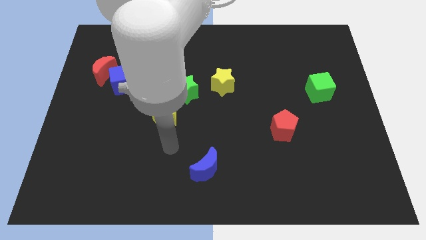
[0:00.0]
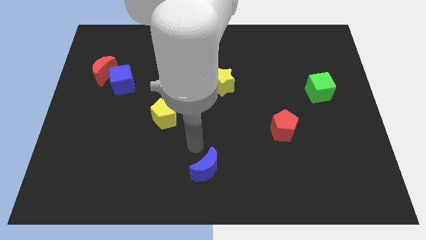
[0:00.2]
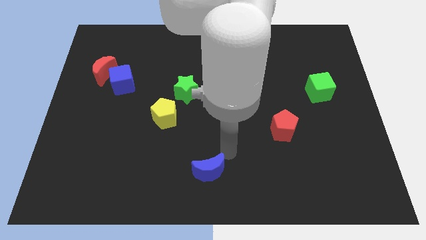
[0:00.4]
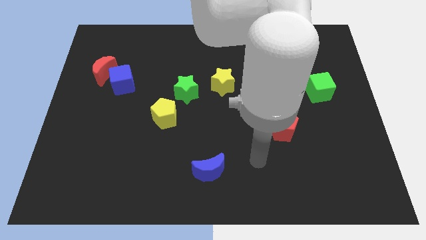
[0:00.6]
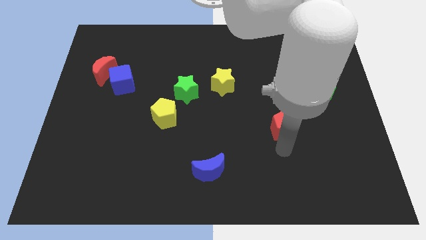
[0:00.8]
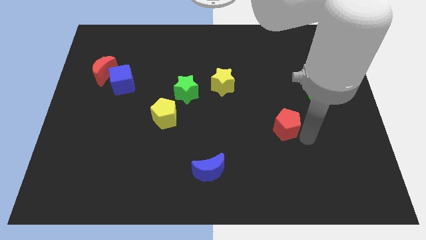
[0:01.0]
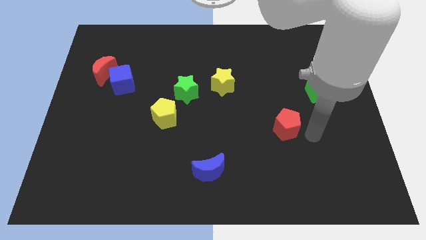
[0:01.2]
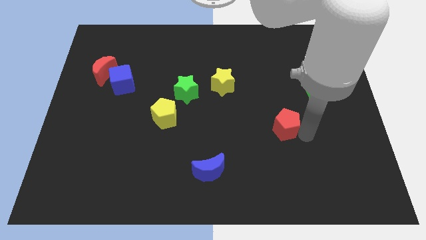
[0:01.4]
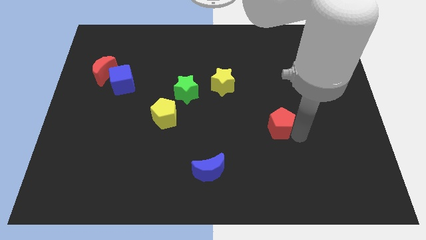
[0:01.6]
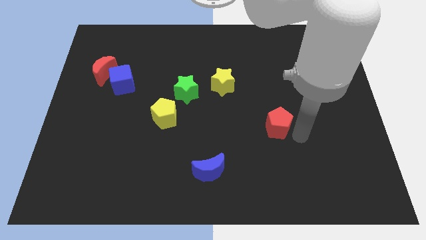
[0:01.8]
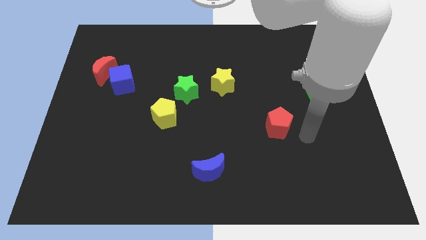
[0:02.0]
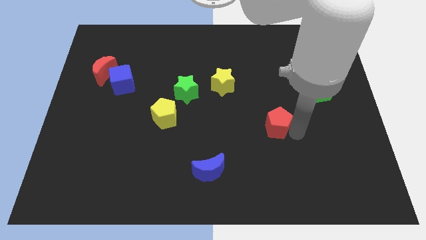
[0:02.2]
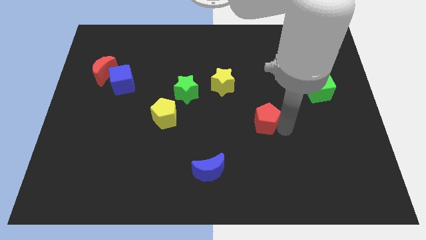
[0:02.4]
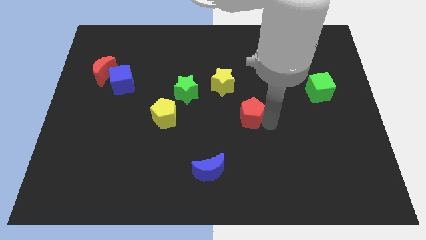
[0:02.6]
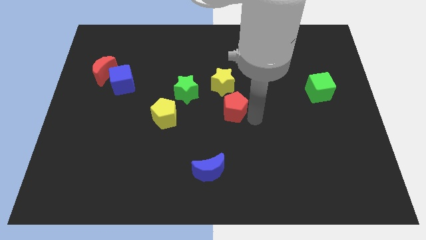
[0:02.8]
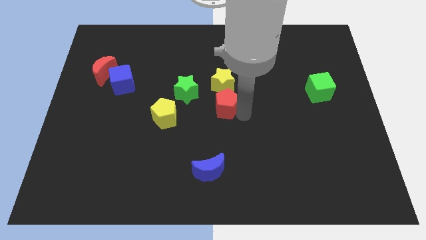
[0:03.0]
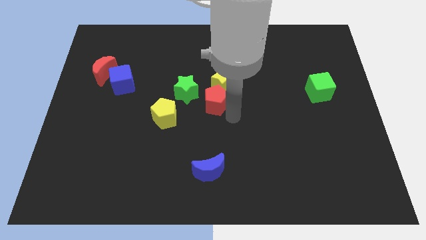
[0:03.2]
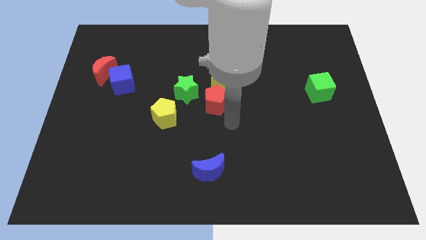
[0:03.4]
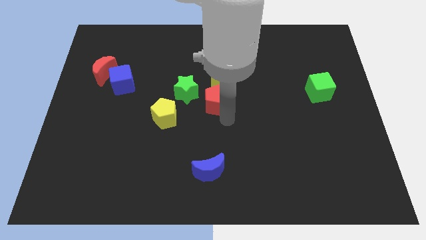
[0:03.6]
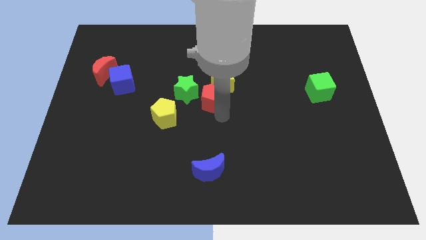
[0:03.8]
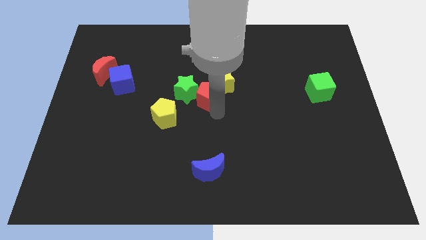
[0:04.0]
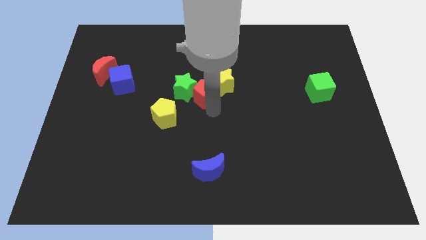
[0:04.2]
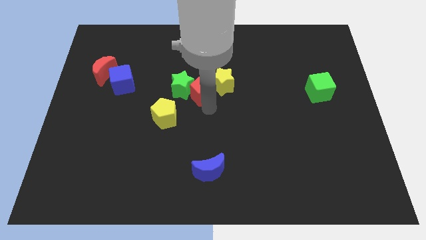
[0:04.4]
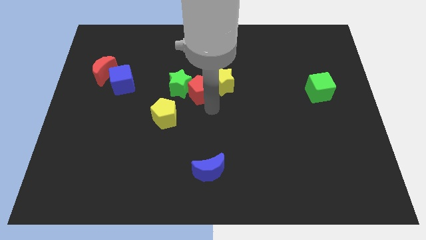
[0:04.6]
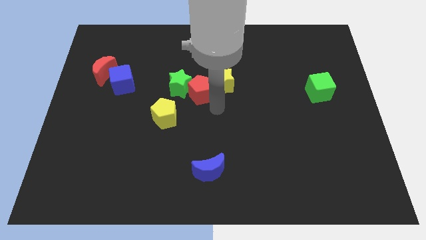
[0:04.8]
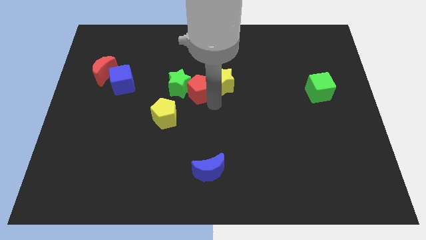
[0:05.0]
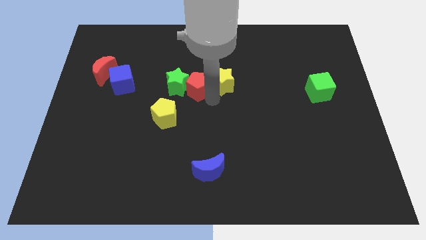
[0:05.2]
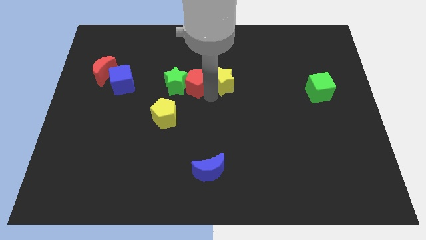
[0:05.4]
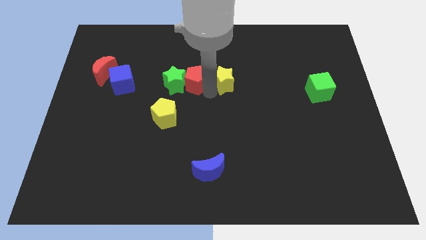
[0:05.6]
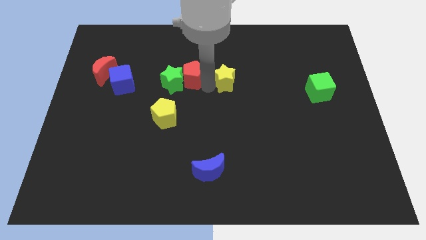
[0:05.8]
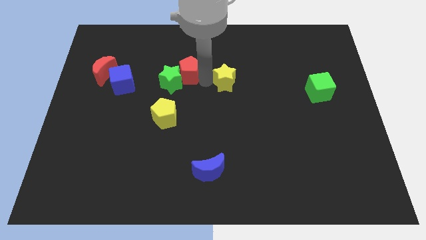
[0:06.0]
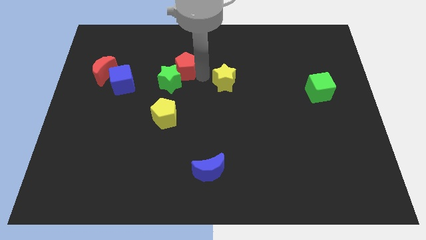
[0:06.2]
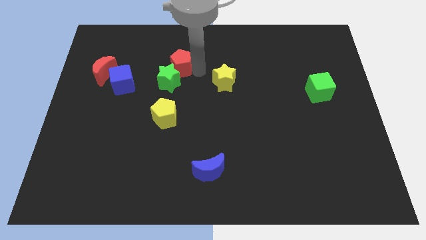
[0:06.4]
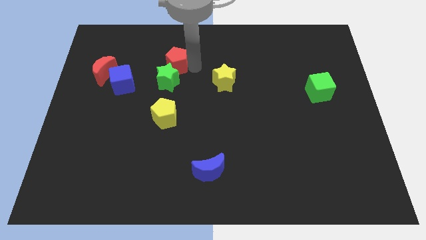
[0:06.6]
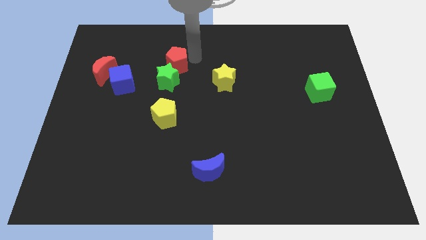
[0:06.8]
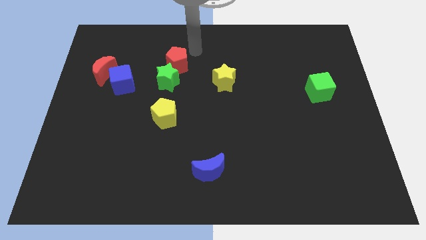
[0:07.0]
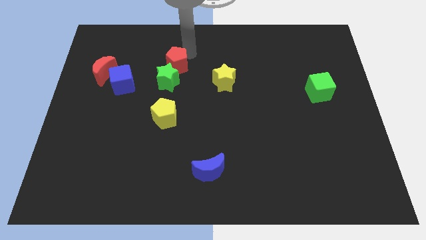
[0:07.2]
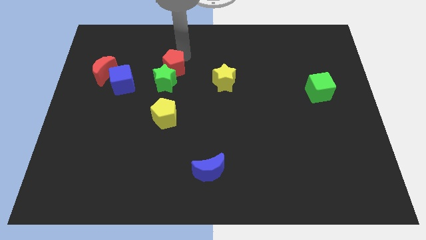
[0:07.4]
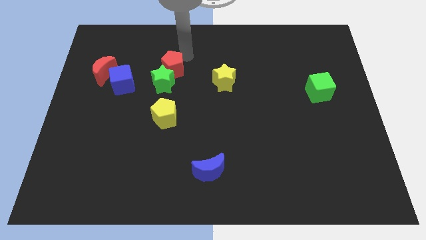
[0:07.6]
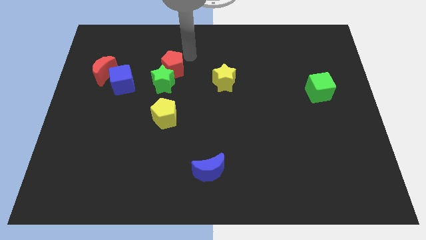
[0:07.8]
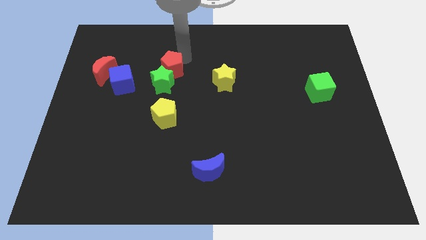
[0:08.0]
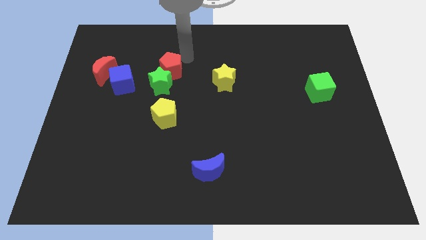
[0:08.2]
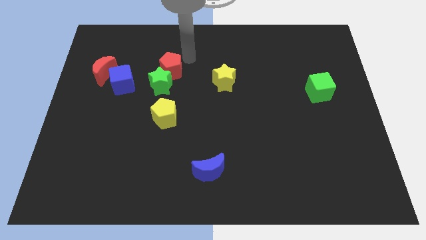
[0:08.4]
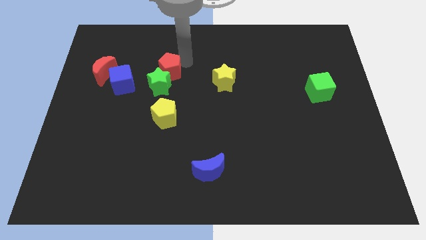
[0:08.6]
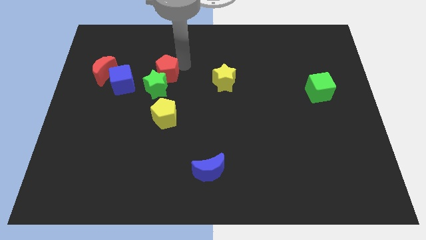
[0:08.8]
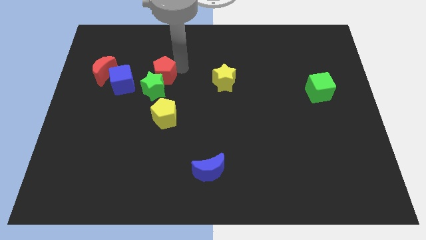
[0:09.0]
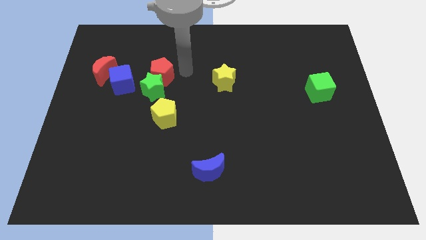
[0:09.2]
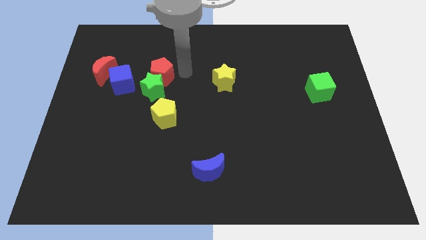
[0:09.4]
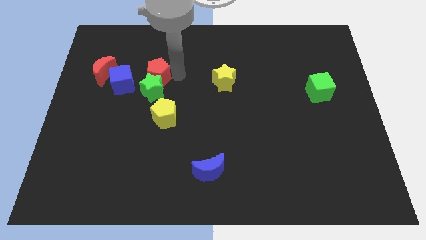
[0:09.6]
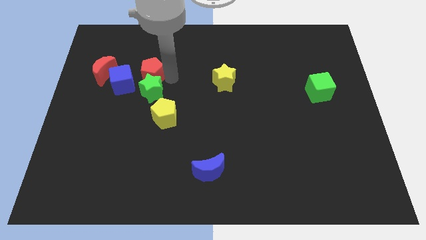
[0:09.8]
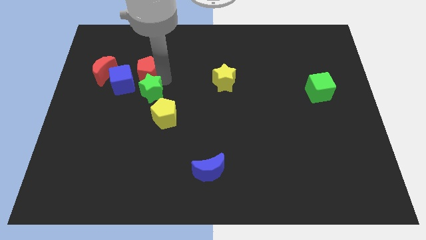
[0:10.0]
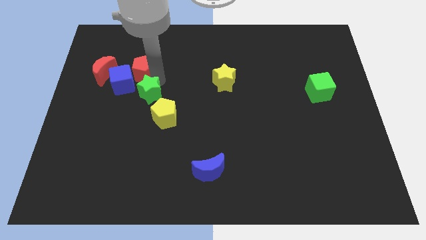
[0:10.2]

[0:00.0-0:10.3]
slide the red pentagon to the blue cube

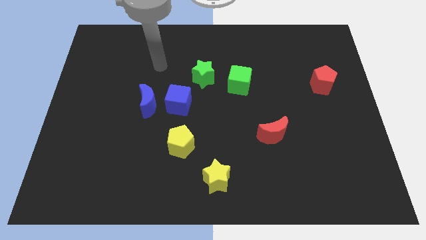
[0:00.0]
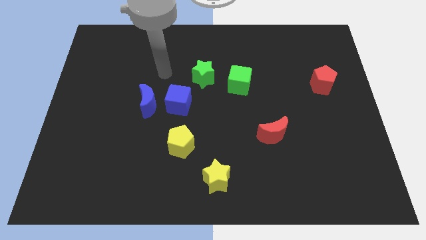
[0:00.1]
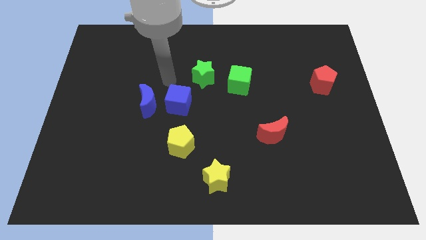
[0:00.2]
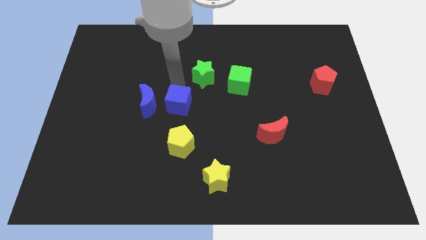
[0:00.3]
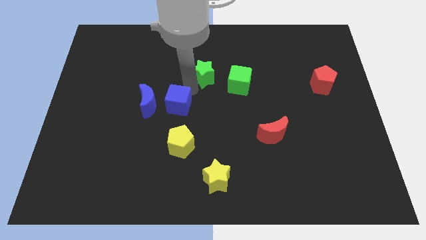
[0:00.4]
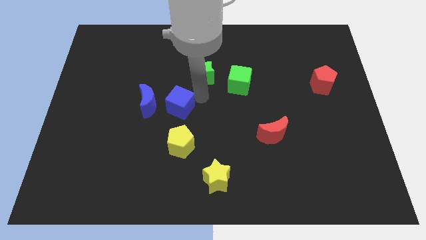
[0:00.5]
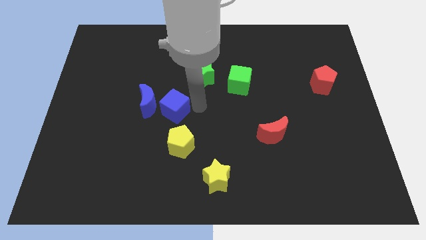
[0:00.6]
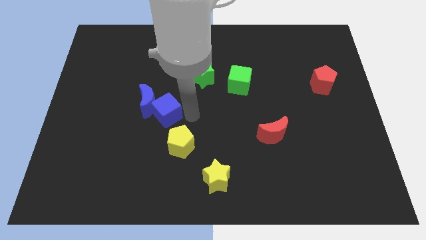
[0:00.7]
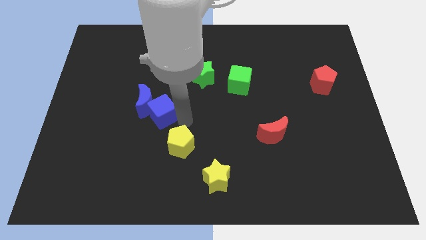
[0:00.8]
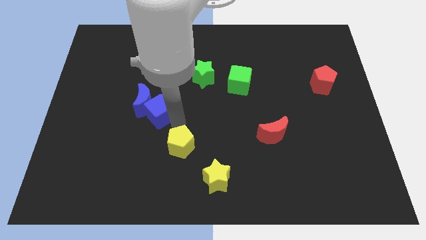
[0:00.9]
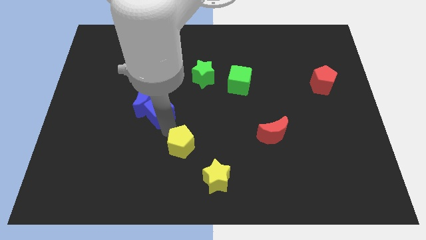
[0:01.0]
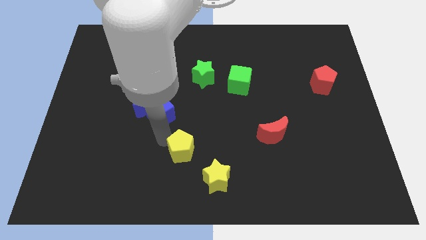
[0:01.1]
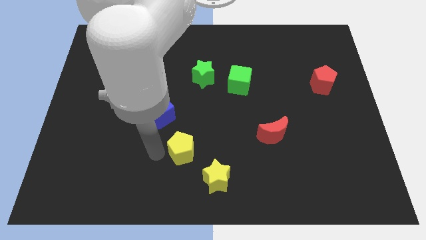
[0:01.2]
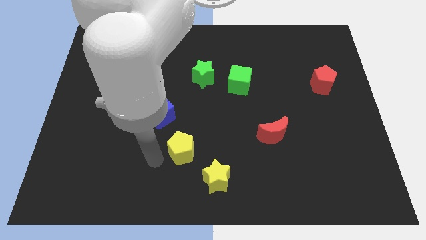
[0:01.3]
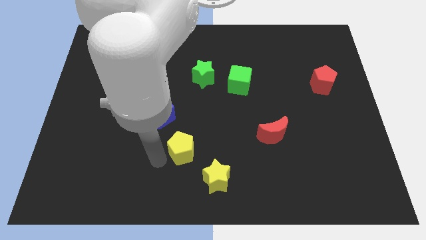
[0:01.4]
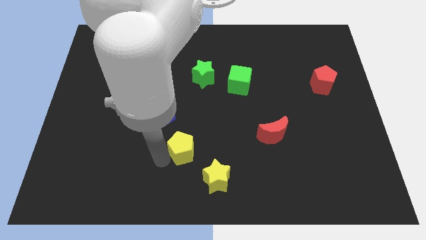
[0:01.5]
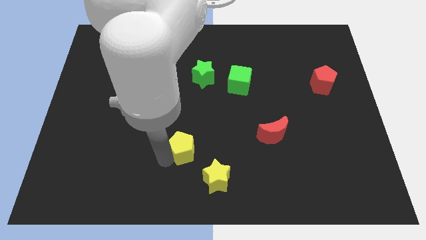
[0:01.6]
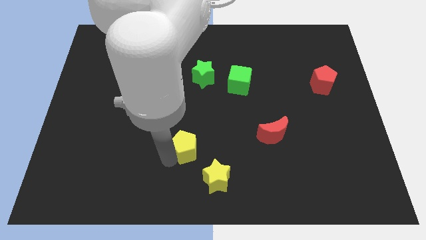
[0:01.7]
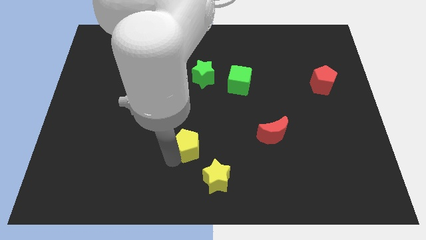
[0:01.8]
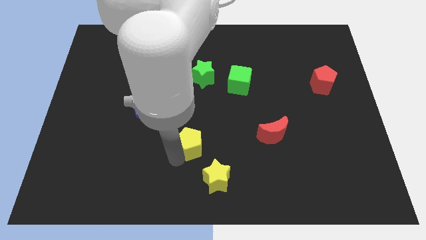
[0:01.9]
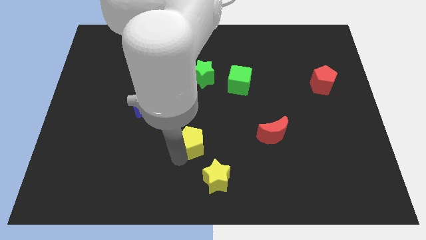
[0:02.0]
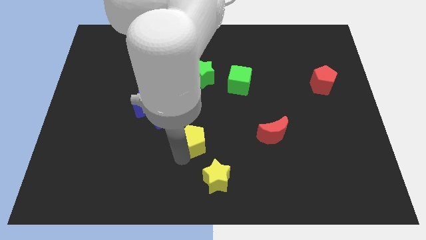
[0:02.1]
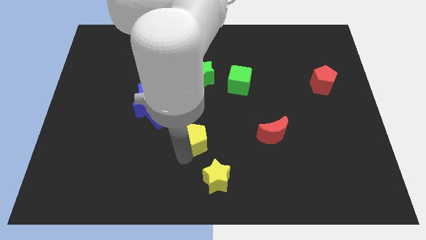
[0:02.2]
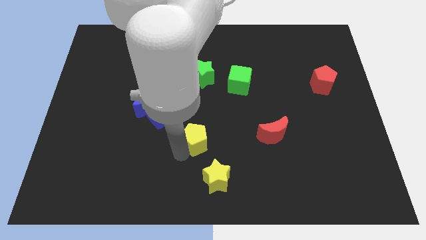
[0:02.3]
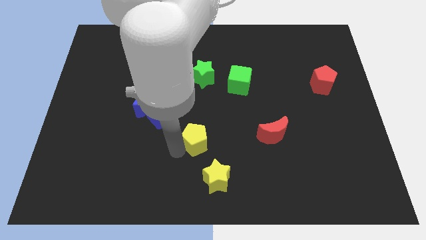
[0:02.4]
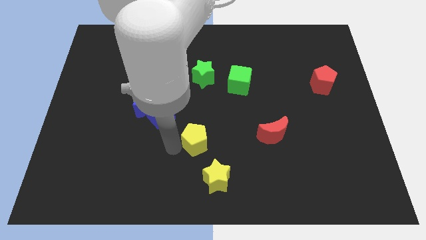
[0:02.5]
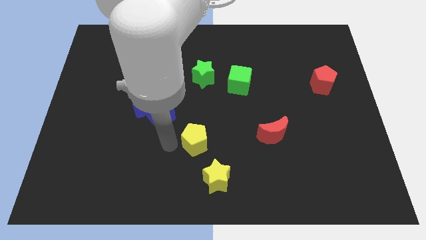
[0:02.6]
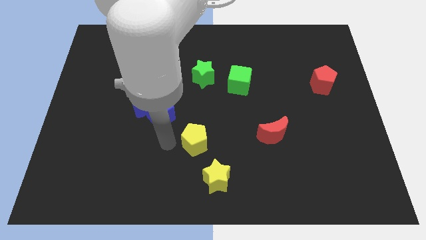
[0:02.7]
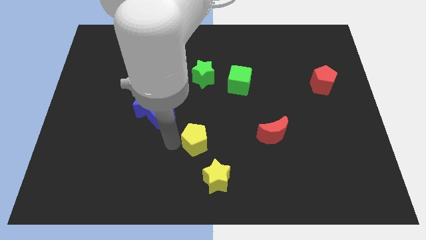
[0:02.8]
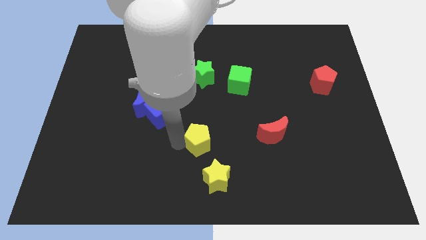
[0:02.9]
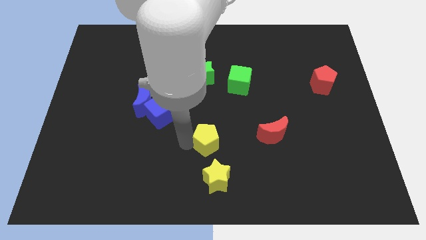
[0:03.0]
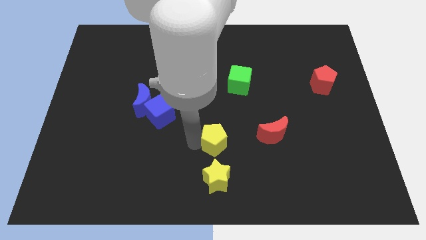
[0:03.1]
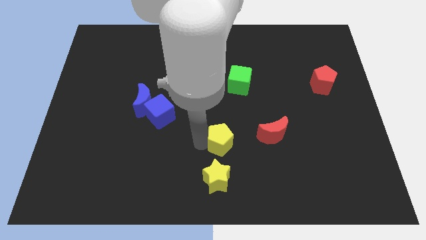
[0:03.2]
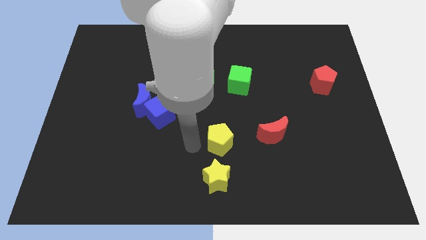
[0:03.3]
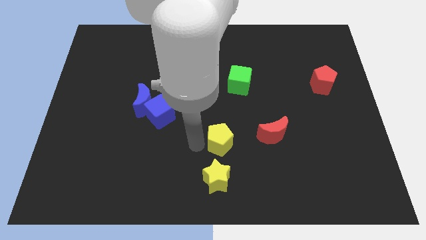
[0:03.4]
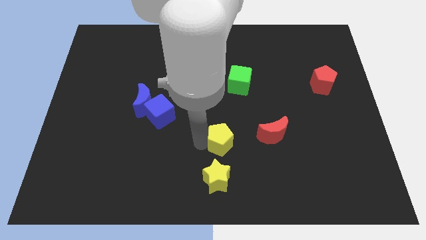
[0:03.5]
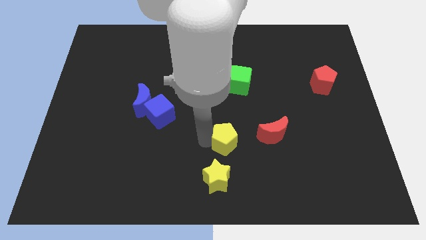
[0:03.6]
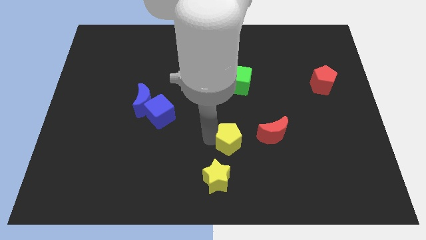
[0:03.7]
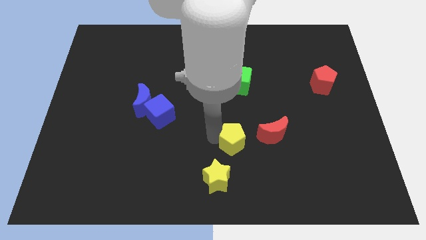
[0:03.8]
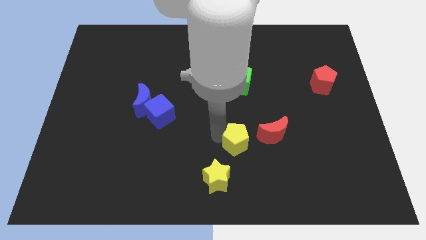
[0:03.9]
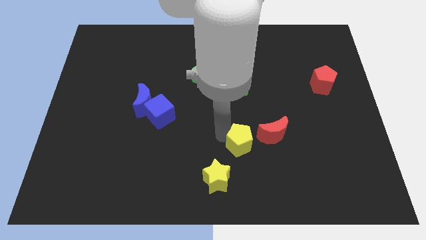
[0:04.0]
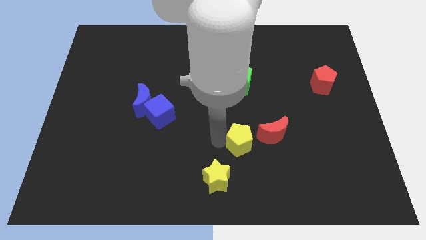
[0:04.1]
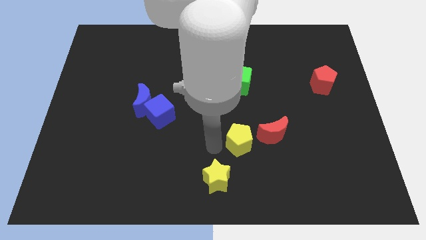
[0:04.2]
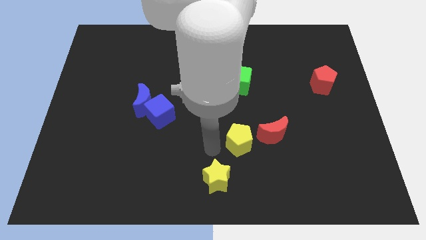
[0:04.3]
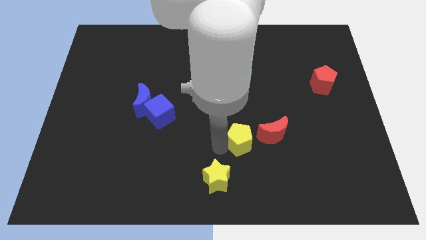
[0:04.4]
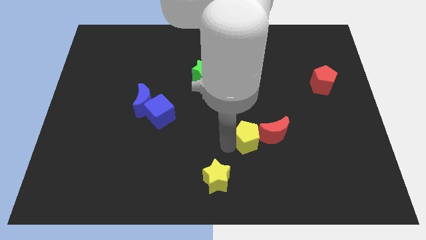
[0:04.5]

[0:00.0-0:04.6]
put the yellow pentagon towards the red moon
